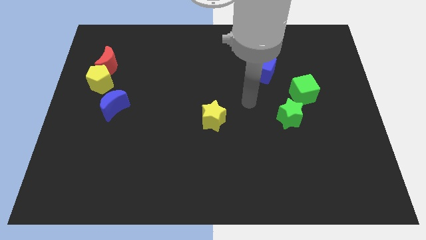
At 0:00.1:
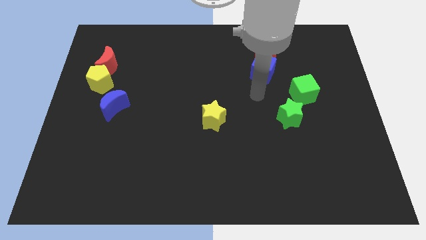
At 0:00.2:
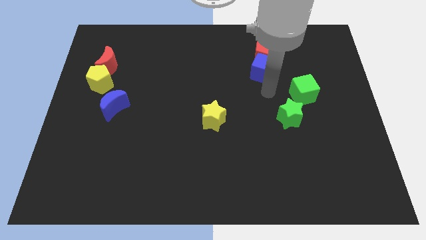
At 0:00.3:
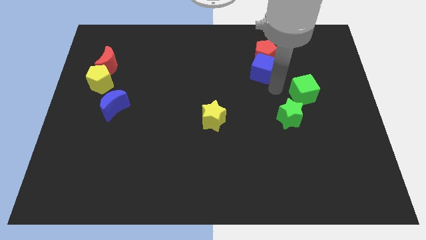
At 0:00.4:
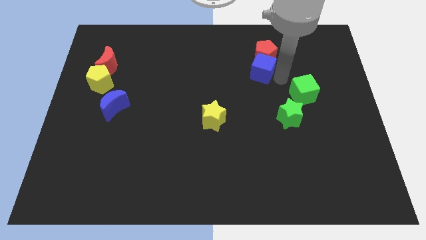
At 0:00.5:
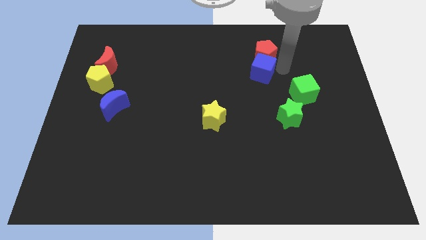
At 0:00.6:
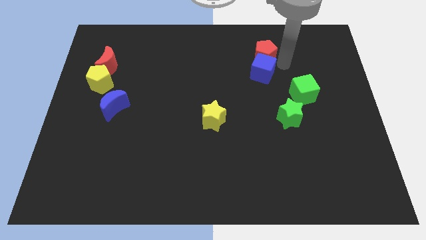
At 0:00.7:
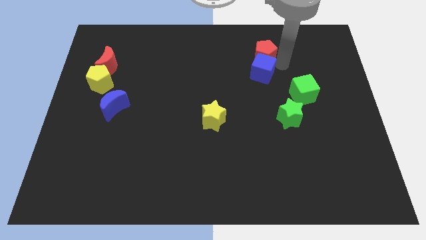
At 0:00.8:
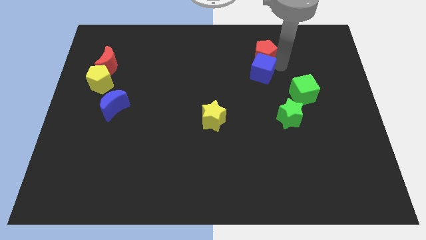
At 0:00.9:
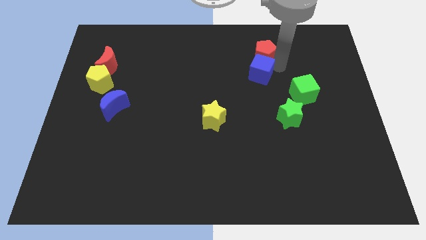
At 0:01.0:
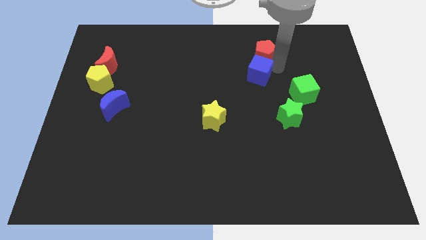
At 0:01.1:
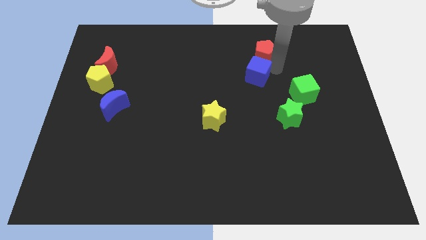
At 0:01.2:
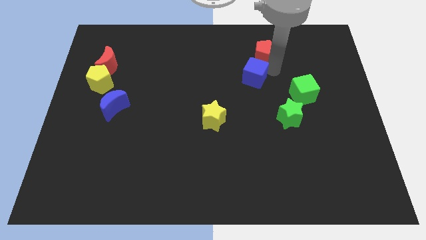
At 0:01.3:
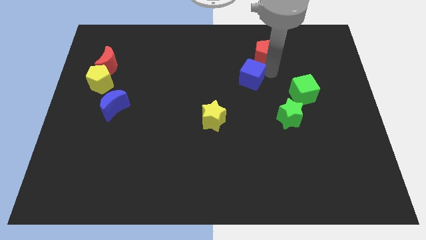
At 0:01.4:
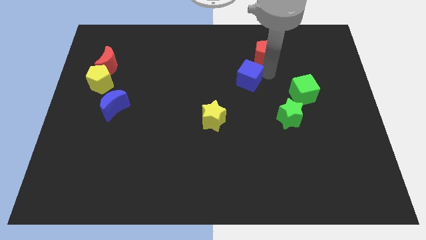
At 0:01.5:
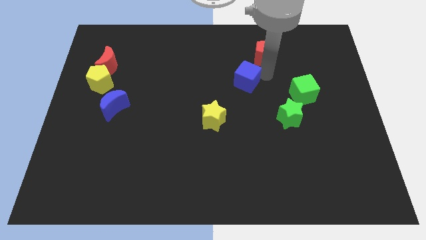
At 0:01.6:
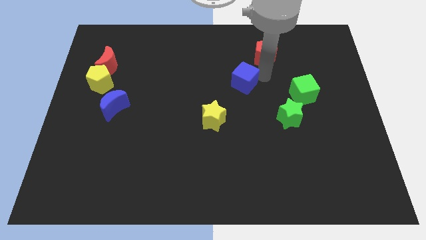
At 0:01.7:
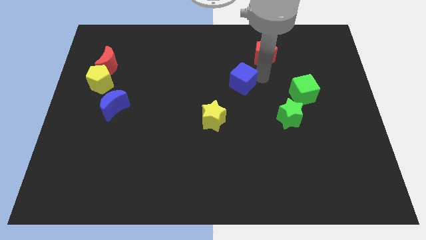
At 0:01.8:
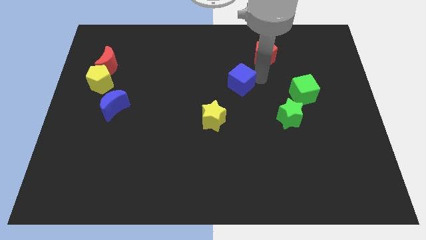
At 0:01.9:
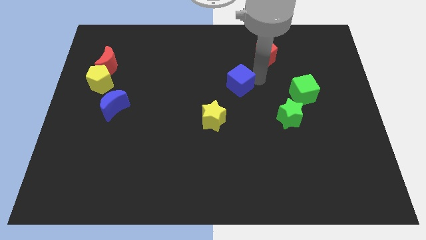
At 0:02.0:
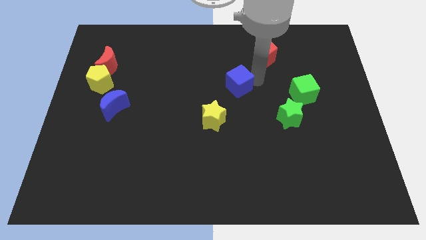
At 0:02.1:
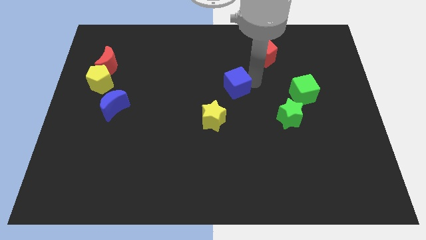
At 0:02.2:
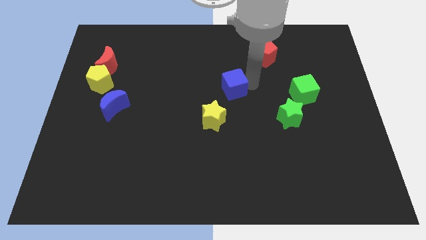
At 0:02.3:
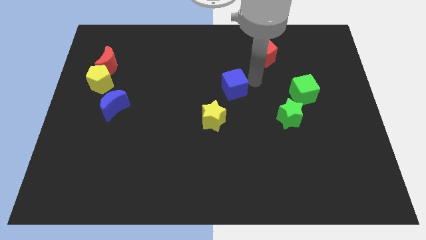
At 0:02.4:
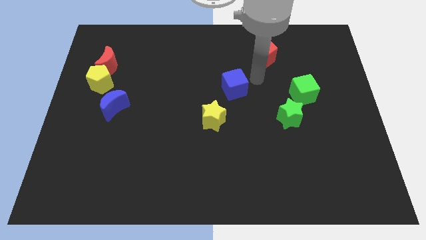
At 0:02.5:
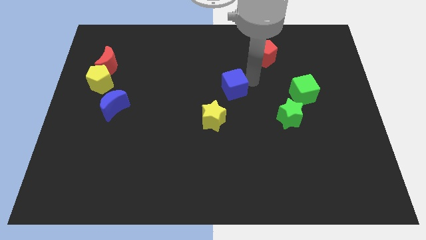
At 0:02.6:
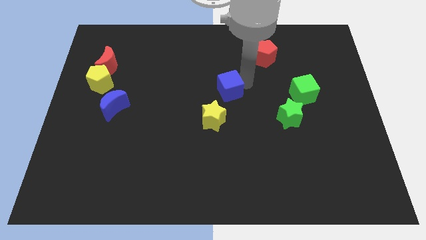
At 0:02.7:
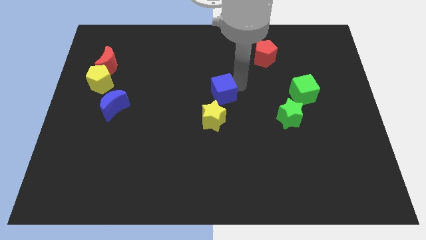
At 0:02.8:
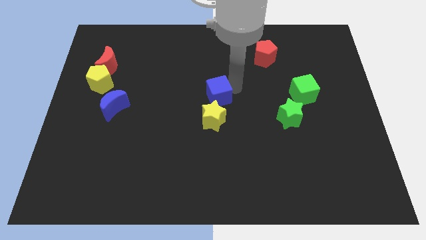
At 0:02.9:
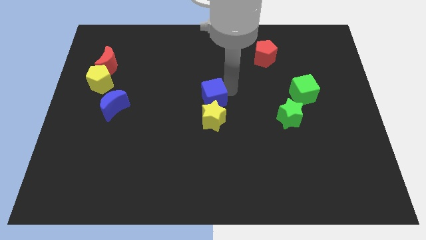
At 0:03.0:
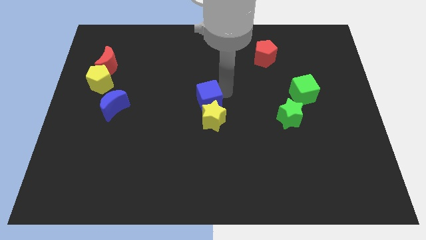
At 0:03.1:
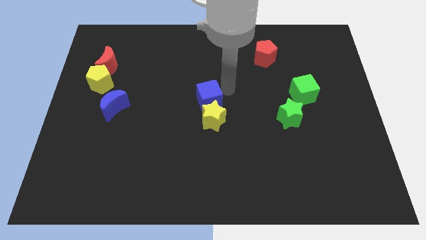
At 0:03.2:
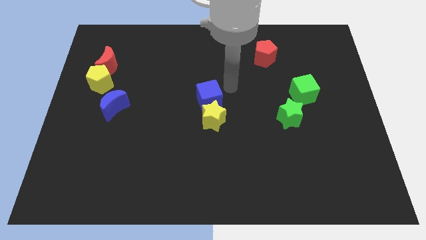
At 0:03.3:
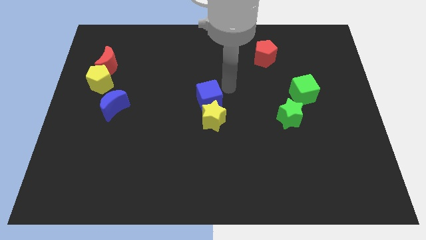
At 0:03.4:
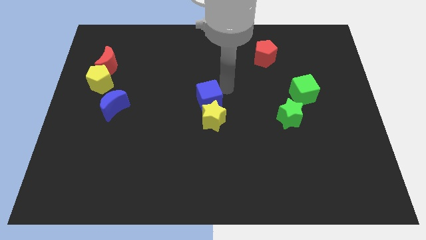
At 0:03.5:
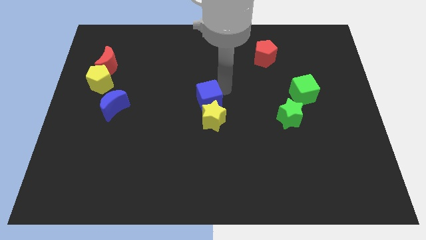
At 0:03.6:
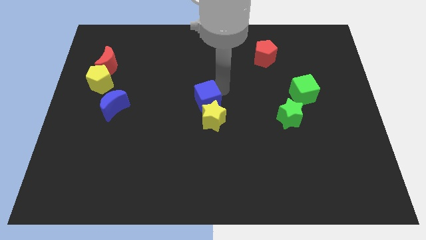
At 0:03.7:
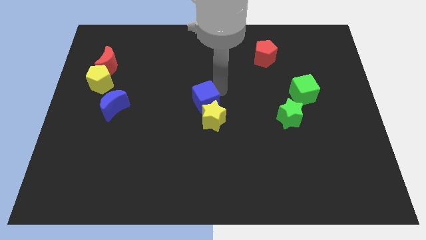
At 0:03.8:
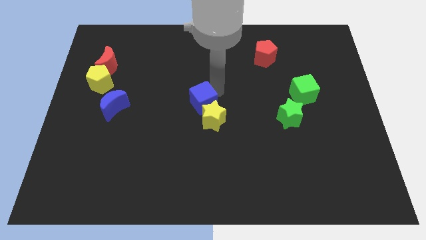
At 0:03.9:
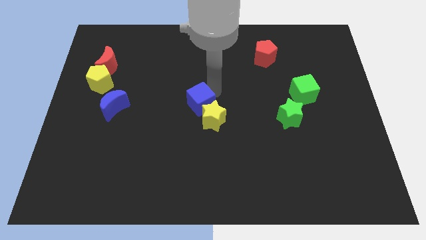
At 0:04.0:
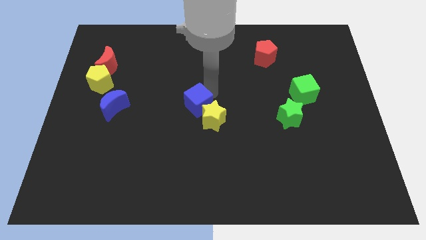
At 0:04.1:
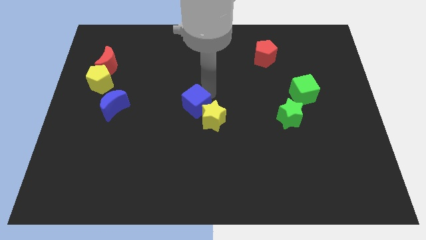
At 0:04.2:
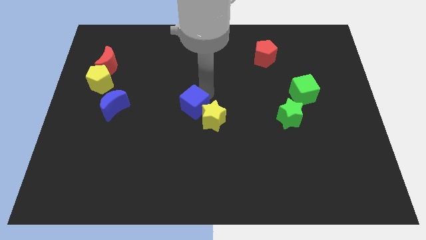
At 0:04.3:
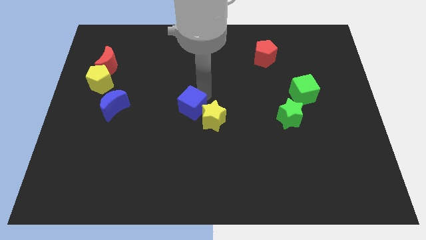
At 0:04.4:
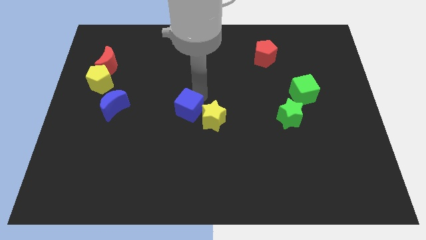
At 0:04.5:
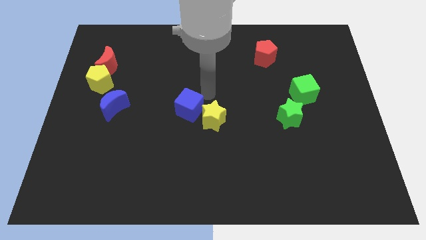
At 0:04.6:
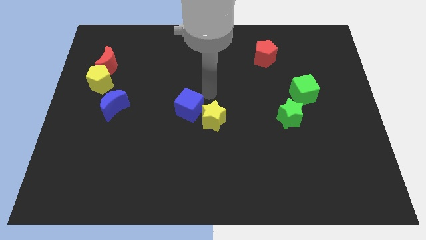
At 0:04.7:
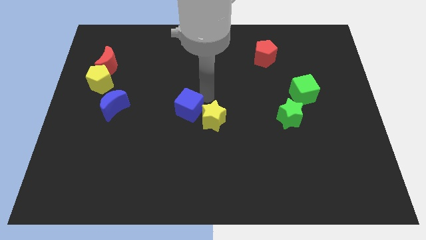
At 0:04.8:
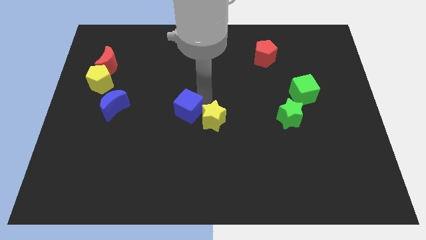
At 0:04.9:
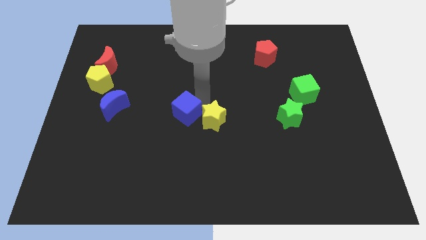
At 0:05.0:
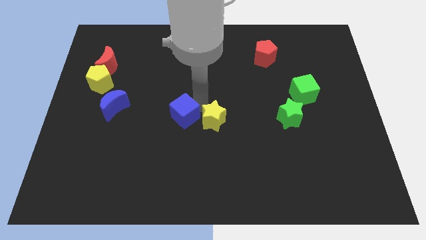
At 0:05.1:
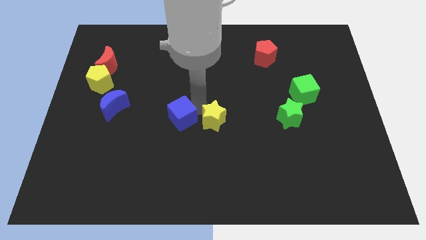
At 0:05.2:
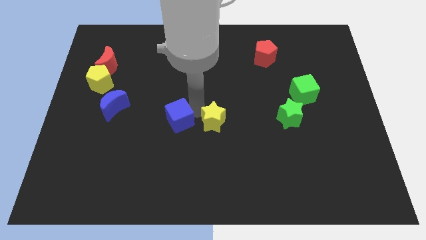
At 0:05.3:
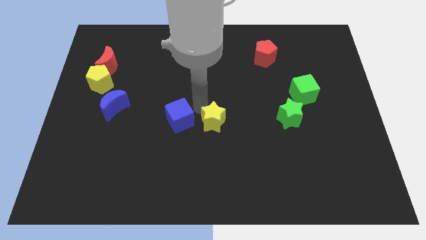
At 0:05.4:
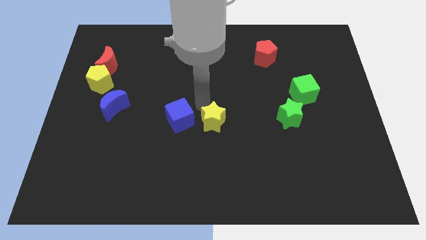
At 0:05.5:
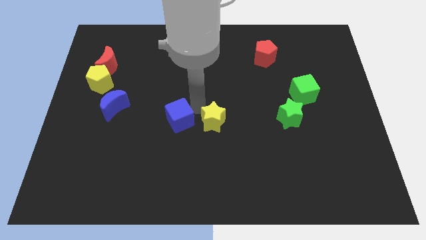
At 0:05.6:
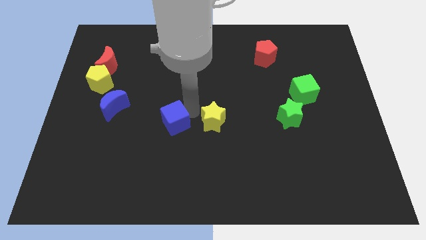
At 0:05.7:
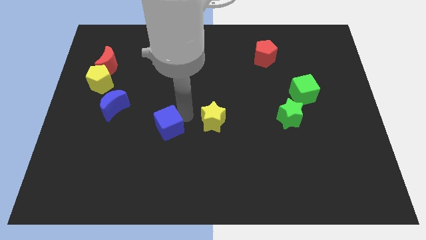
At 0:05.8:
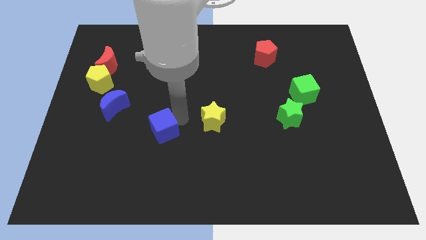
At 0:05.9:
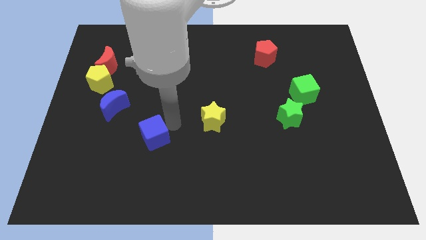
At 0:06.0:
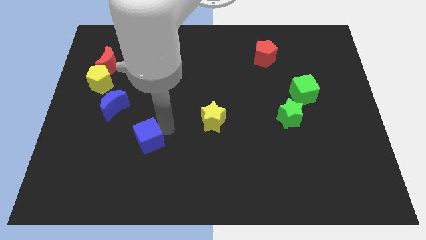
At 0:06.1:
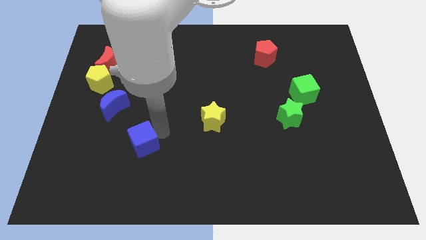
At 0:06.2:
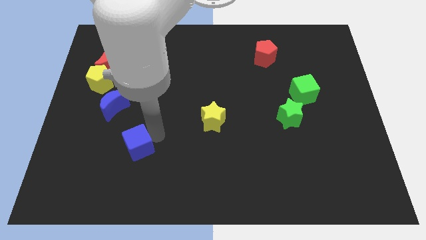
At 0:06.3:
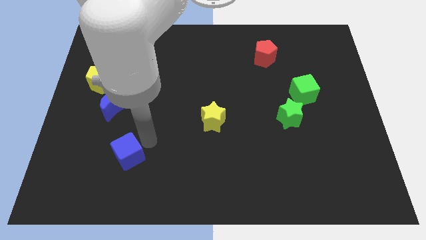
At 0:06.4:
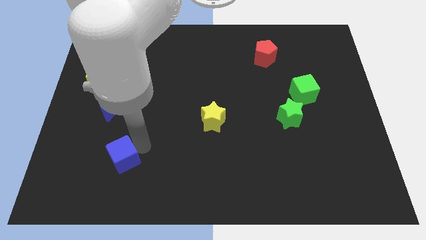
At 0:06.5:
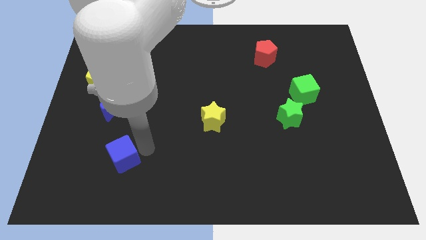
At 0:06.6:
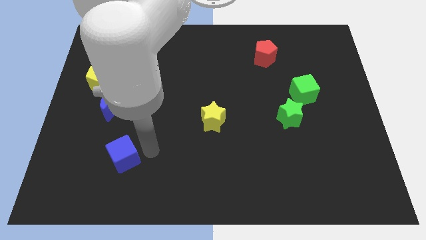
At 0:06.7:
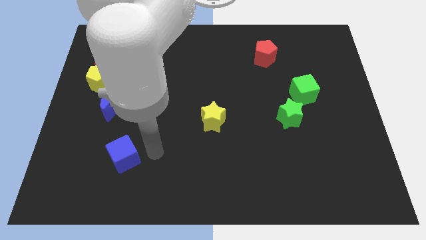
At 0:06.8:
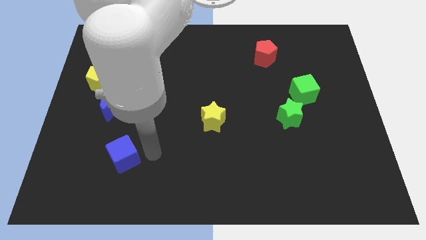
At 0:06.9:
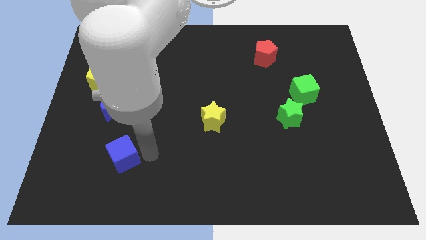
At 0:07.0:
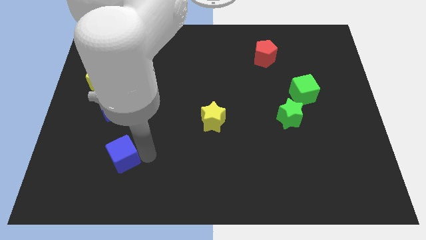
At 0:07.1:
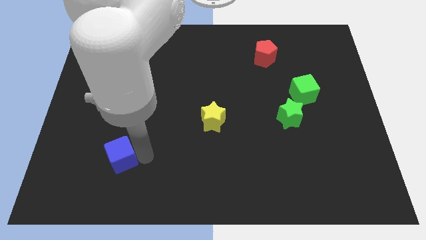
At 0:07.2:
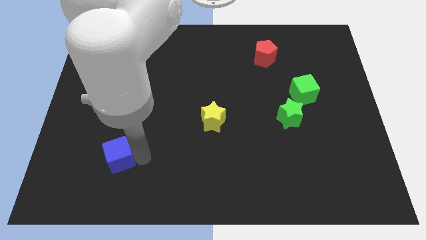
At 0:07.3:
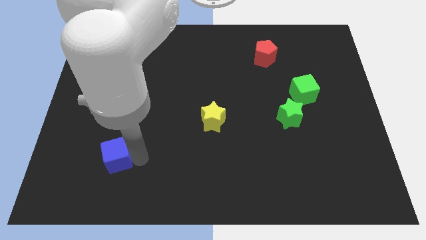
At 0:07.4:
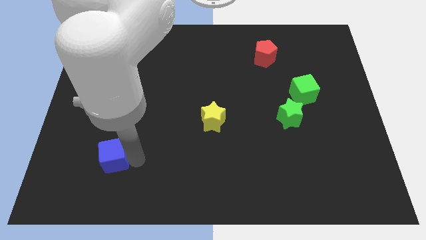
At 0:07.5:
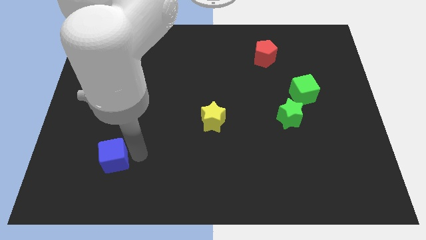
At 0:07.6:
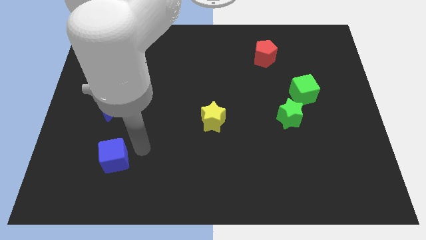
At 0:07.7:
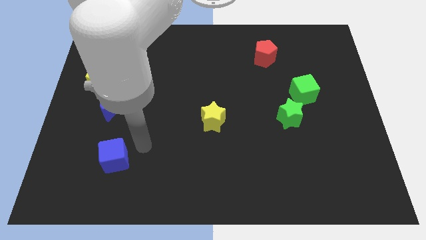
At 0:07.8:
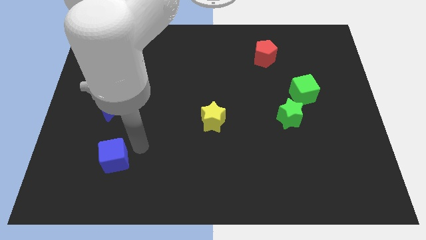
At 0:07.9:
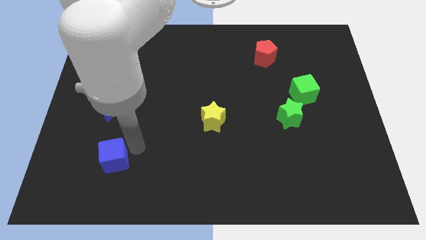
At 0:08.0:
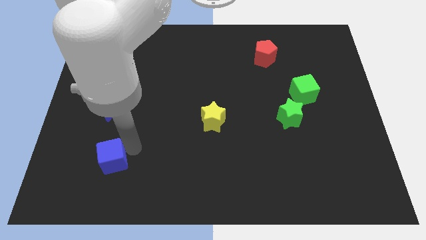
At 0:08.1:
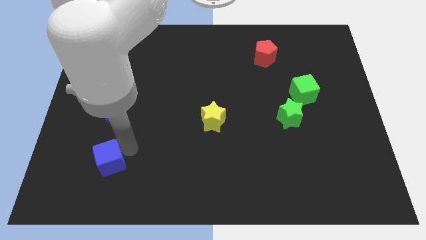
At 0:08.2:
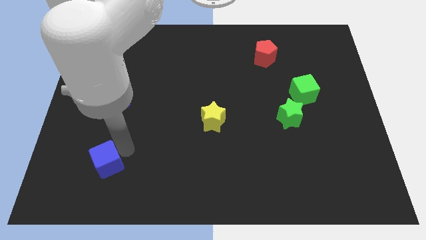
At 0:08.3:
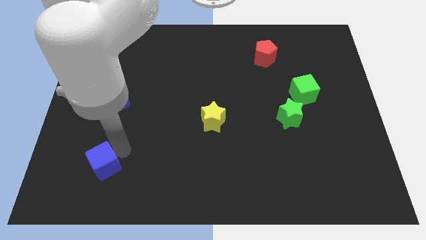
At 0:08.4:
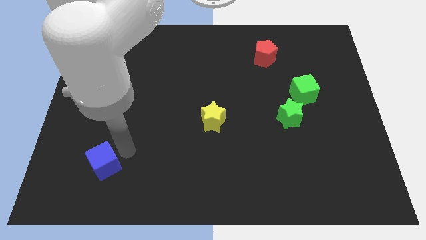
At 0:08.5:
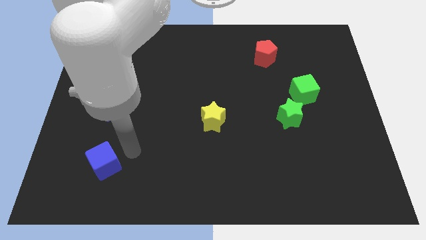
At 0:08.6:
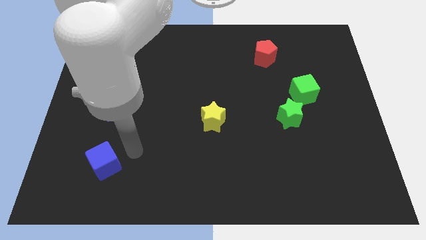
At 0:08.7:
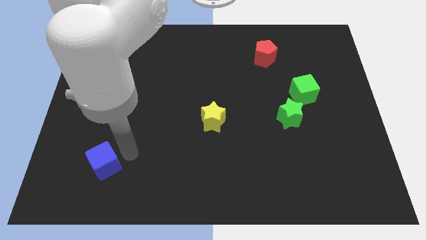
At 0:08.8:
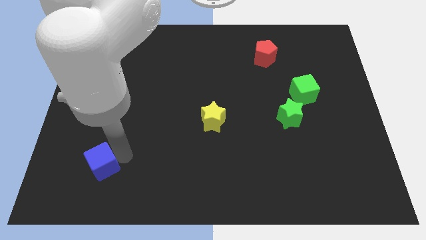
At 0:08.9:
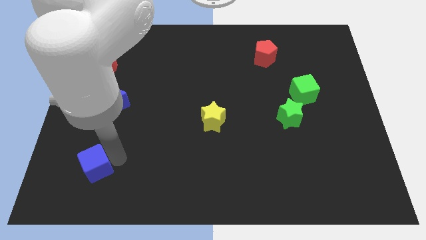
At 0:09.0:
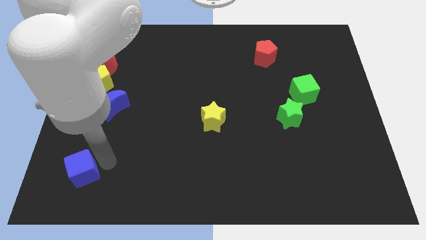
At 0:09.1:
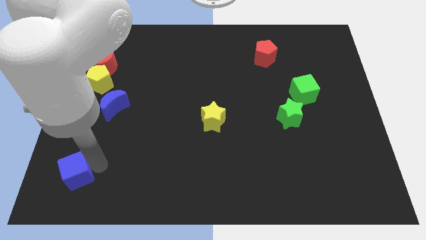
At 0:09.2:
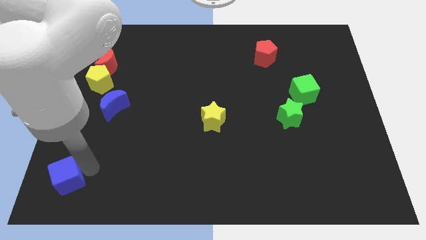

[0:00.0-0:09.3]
push the blue cube to the bottom left of the board
